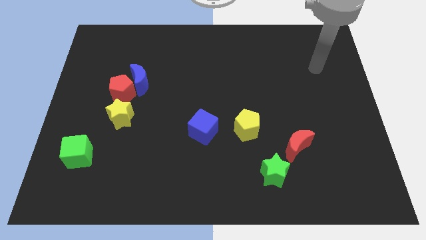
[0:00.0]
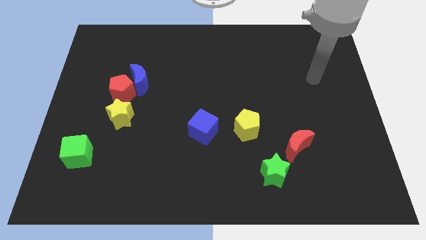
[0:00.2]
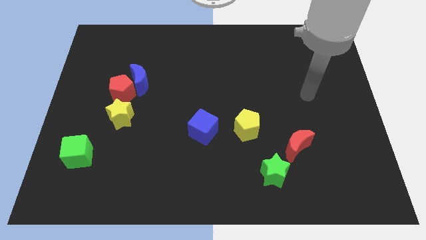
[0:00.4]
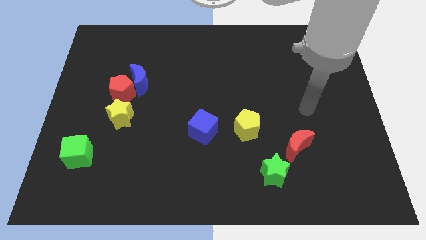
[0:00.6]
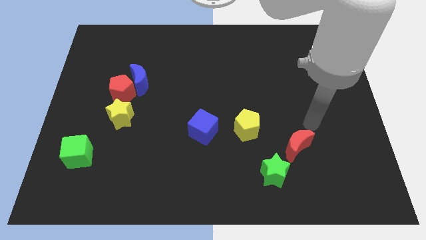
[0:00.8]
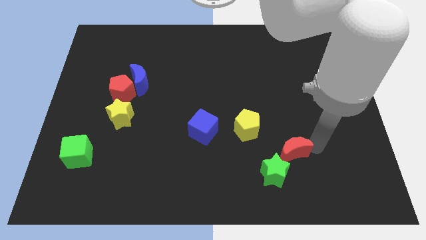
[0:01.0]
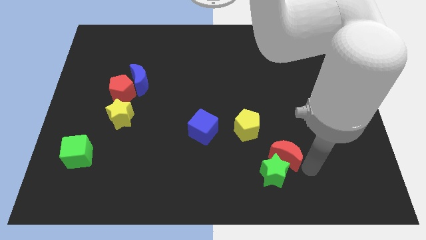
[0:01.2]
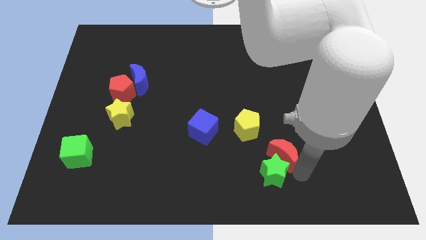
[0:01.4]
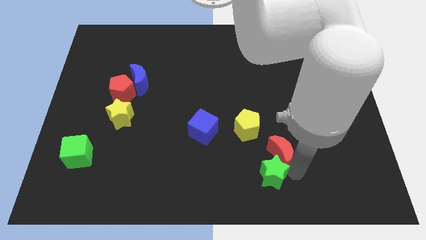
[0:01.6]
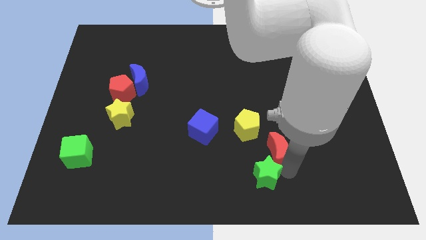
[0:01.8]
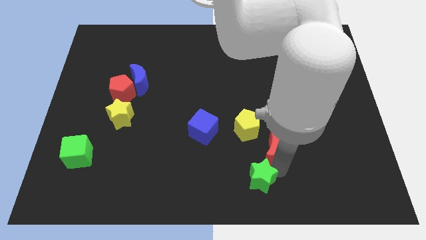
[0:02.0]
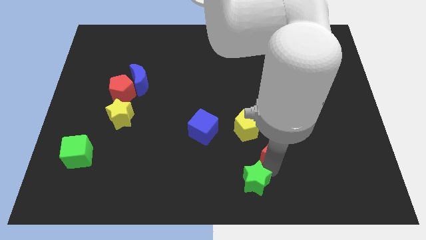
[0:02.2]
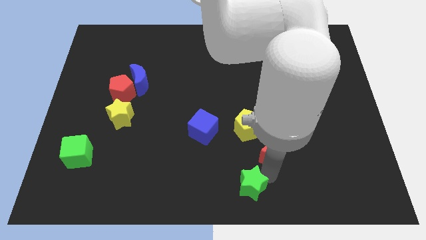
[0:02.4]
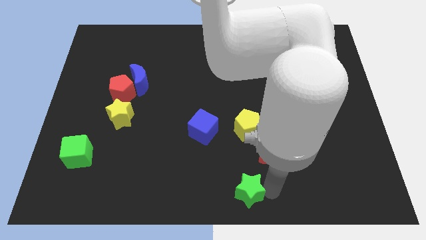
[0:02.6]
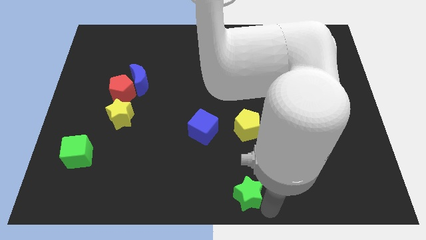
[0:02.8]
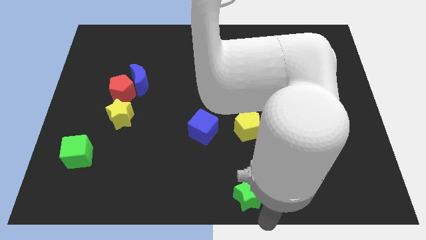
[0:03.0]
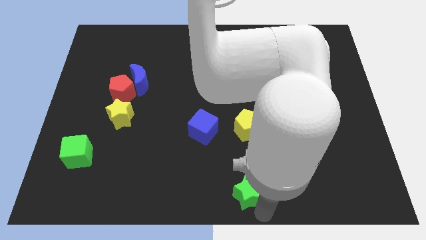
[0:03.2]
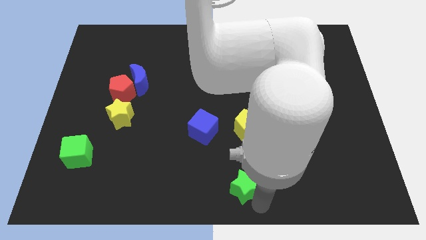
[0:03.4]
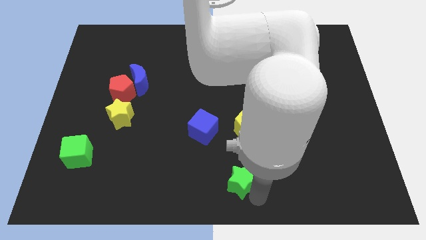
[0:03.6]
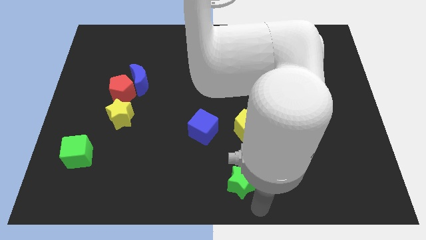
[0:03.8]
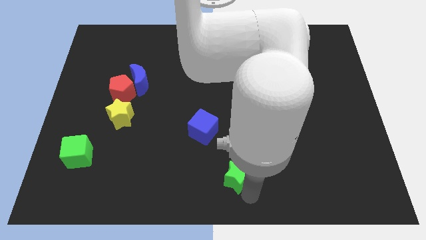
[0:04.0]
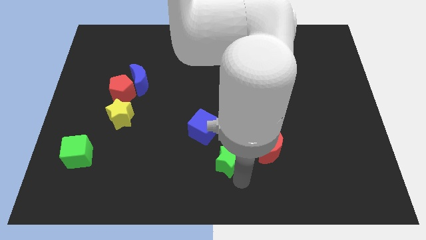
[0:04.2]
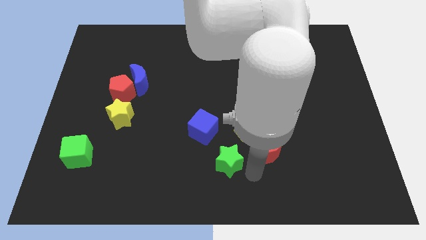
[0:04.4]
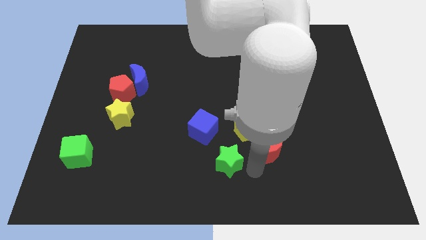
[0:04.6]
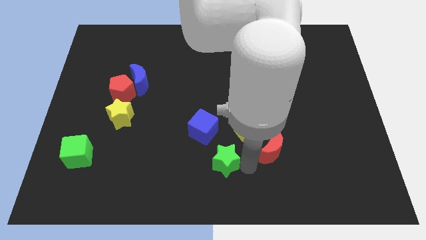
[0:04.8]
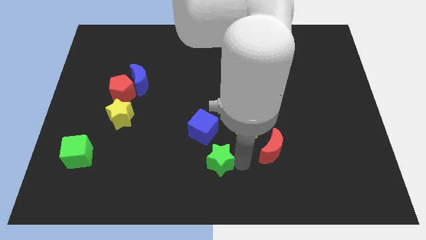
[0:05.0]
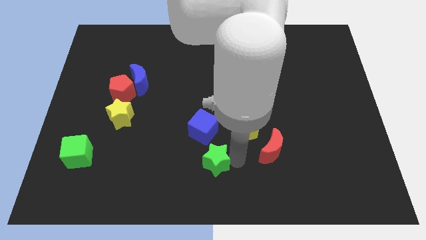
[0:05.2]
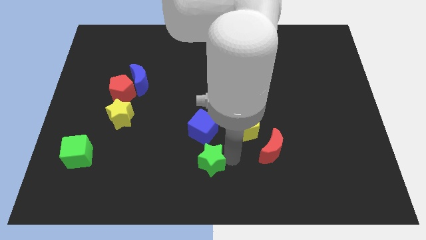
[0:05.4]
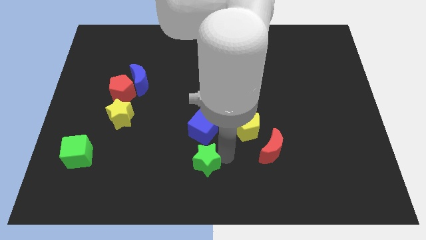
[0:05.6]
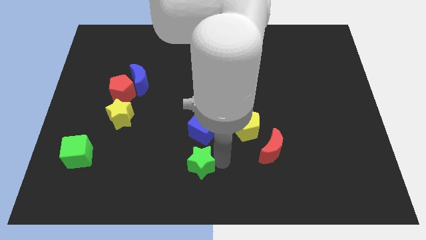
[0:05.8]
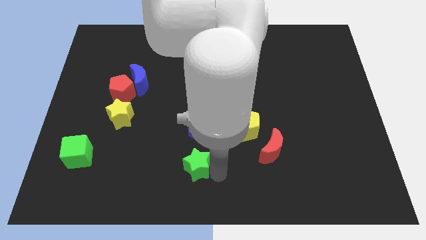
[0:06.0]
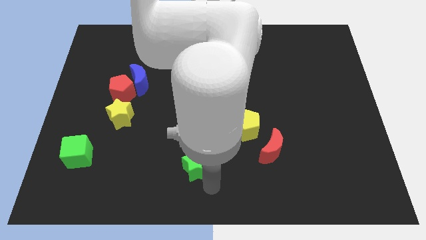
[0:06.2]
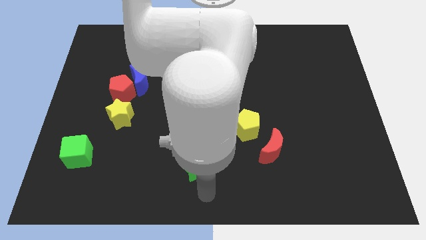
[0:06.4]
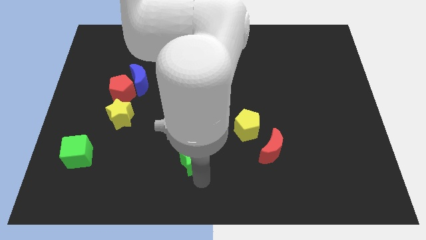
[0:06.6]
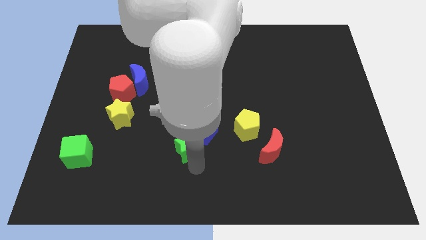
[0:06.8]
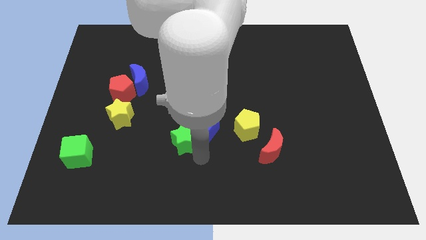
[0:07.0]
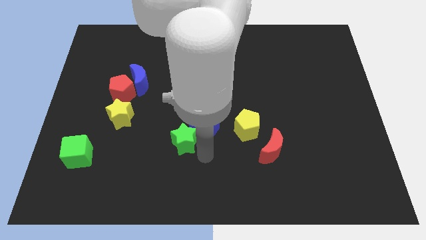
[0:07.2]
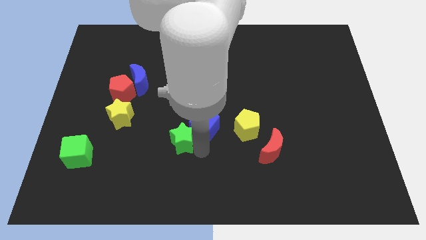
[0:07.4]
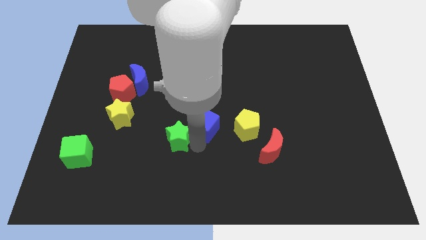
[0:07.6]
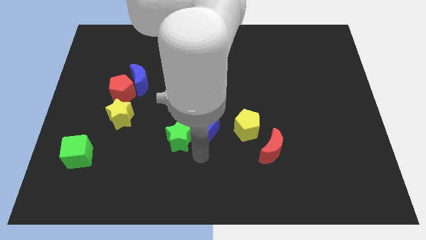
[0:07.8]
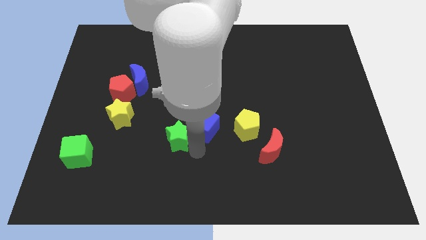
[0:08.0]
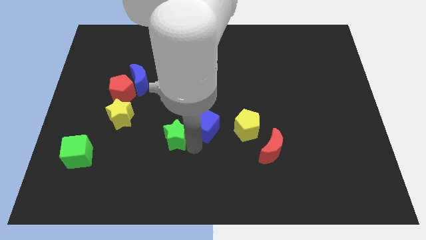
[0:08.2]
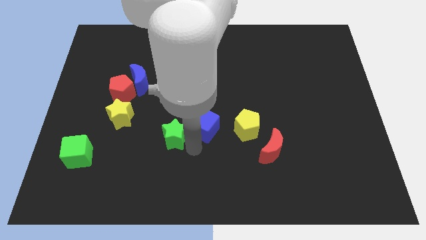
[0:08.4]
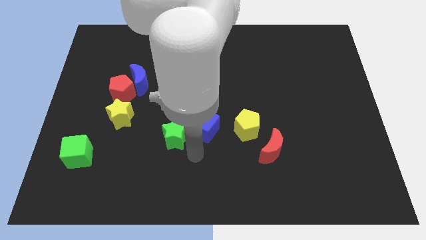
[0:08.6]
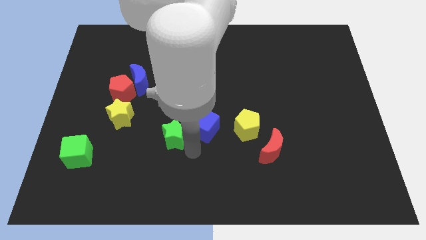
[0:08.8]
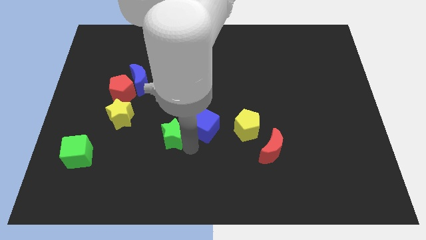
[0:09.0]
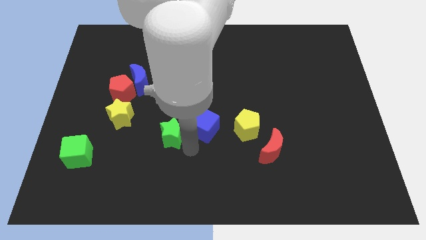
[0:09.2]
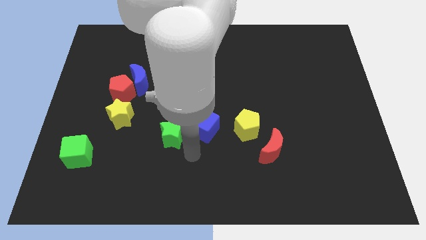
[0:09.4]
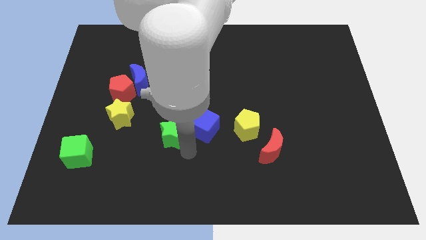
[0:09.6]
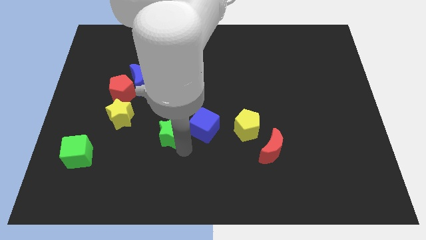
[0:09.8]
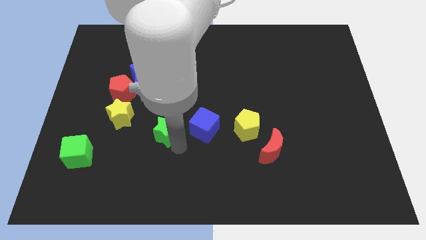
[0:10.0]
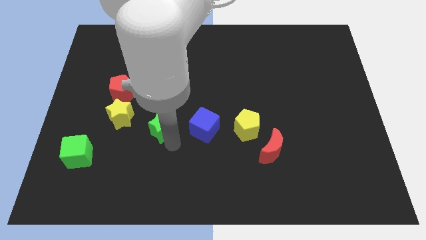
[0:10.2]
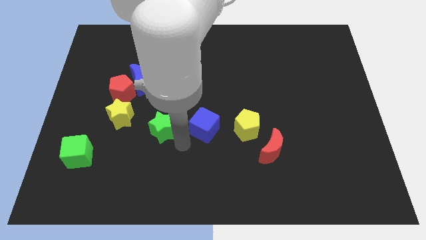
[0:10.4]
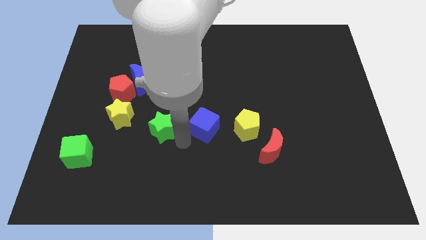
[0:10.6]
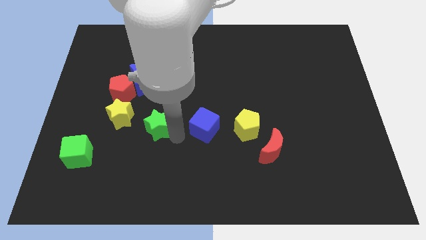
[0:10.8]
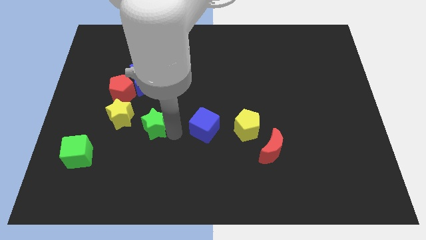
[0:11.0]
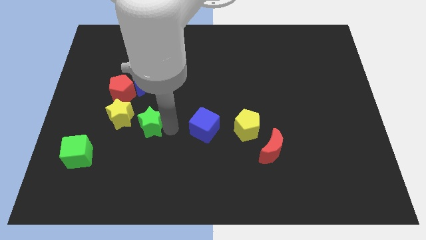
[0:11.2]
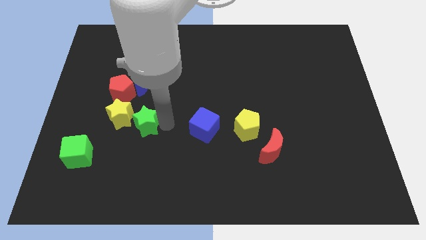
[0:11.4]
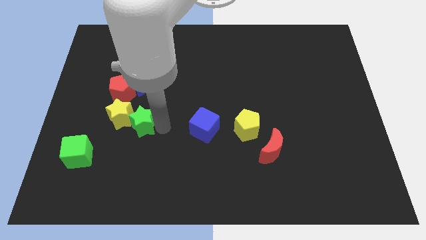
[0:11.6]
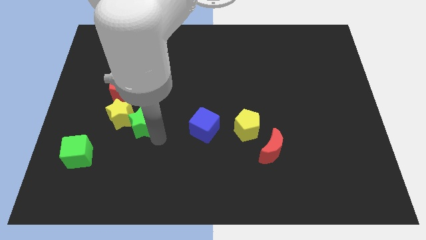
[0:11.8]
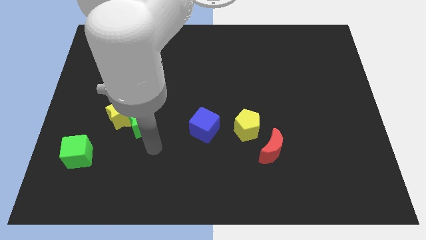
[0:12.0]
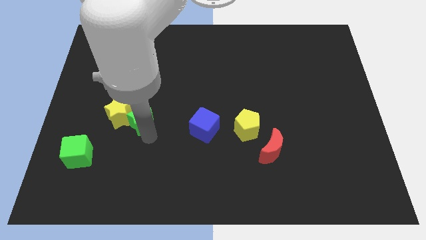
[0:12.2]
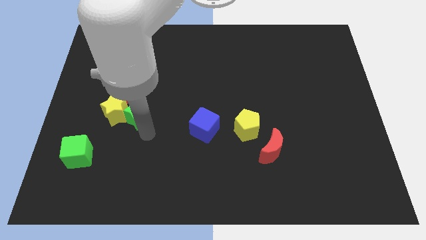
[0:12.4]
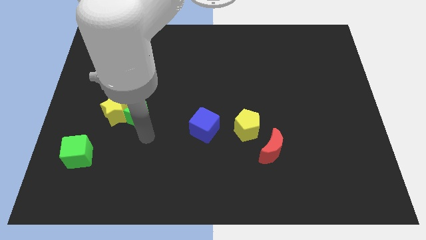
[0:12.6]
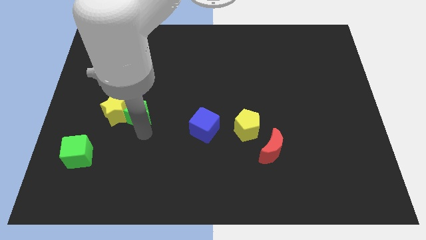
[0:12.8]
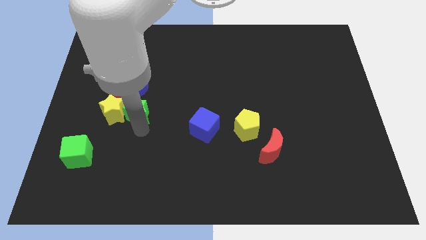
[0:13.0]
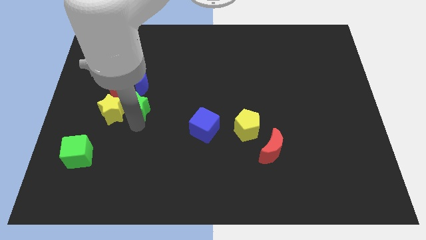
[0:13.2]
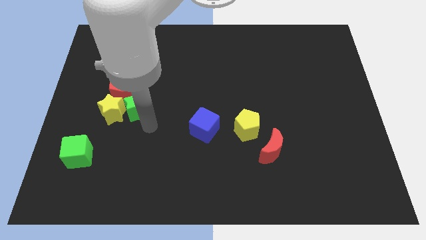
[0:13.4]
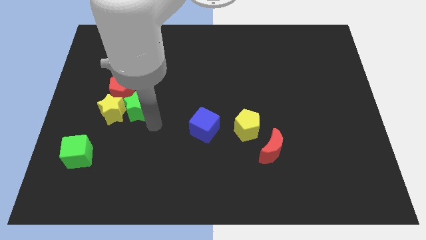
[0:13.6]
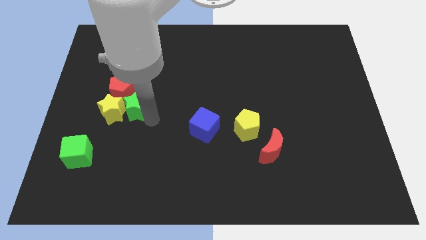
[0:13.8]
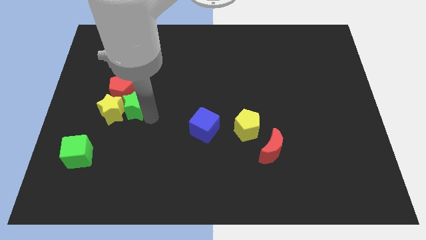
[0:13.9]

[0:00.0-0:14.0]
slide the green star towards the red pentagon
